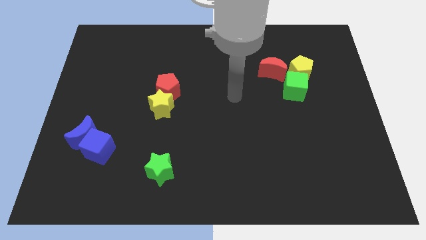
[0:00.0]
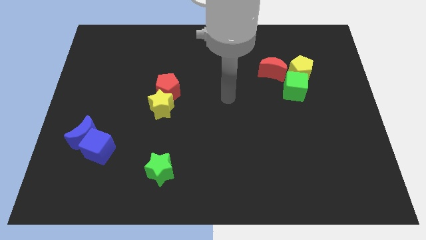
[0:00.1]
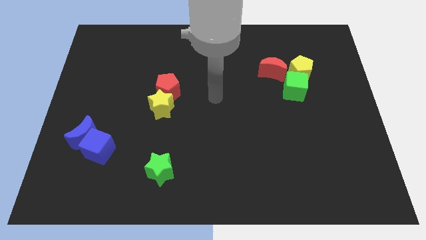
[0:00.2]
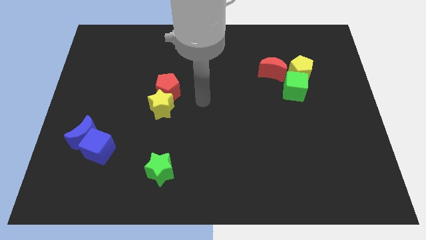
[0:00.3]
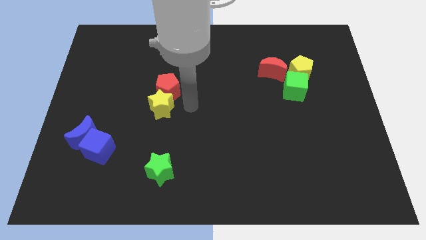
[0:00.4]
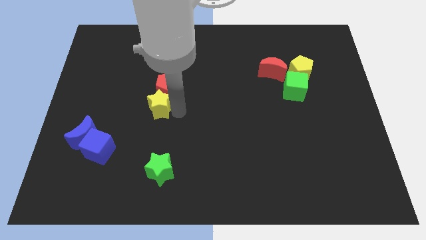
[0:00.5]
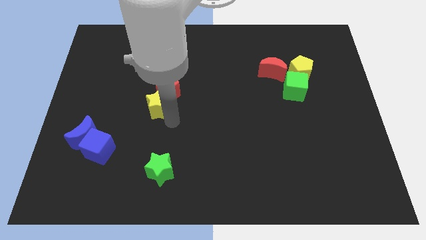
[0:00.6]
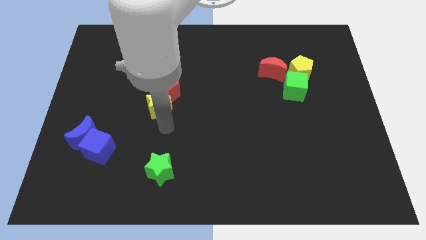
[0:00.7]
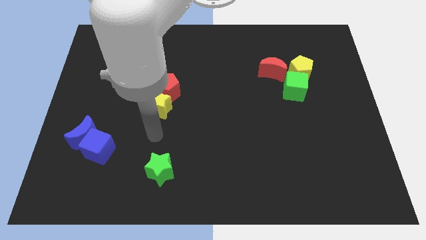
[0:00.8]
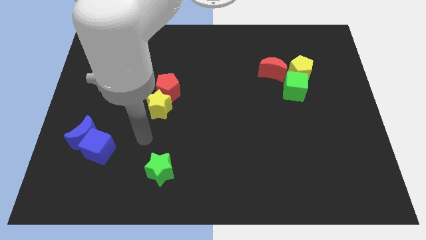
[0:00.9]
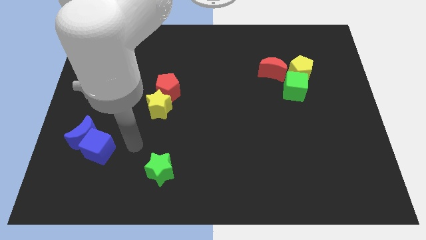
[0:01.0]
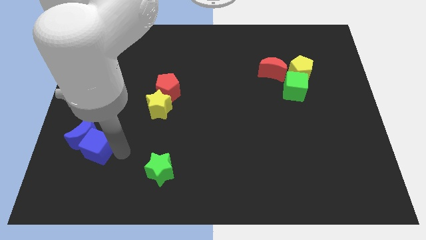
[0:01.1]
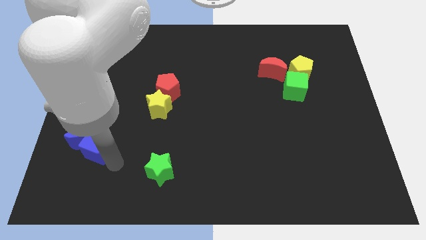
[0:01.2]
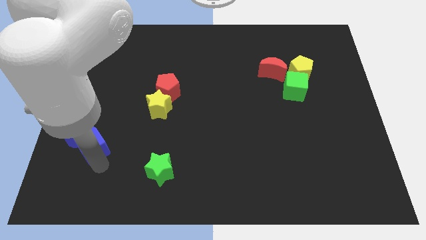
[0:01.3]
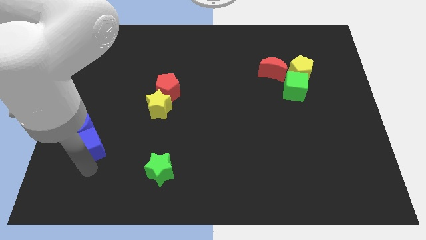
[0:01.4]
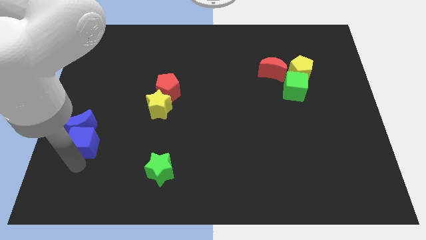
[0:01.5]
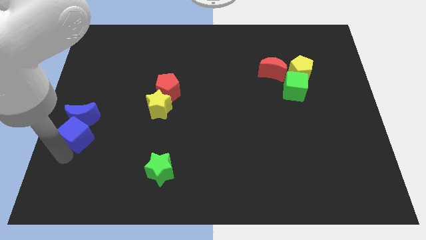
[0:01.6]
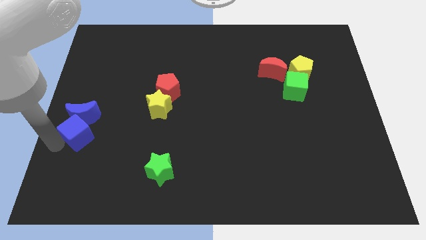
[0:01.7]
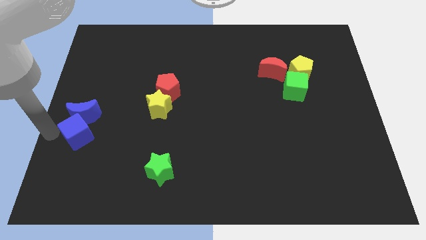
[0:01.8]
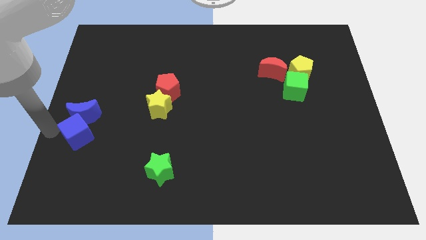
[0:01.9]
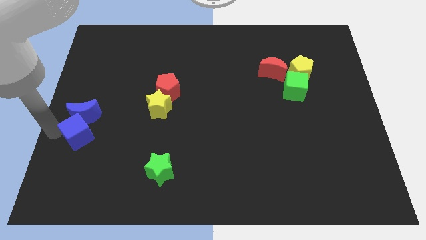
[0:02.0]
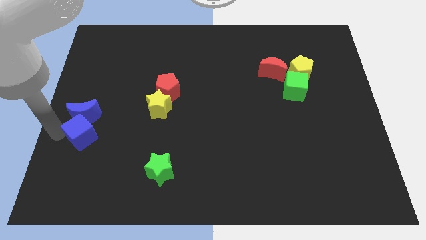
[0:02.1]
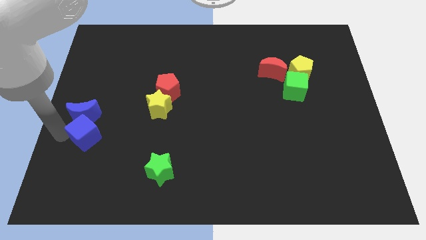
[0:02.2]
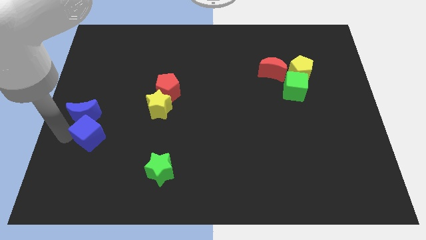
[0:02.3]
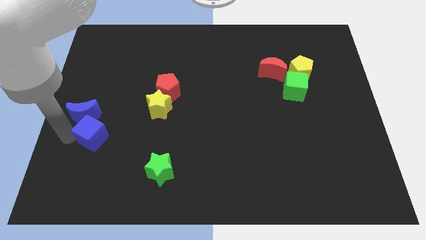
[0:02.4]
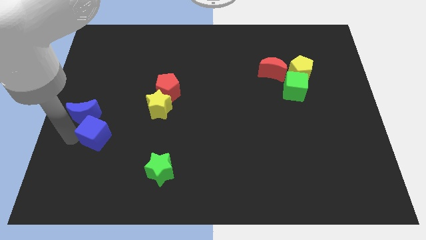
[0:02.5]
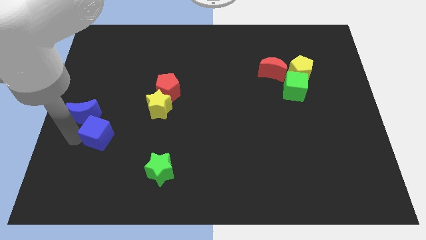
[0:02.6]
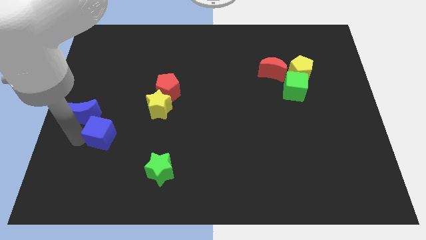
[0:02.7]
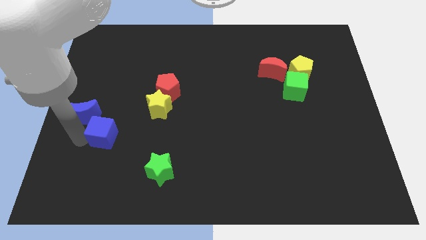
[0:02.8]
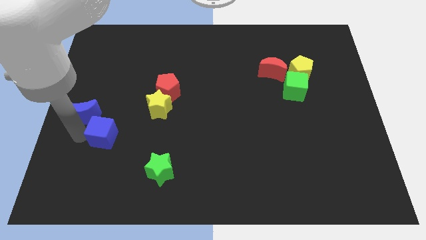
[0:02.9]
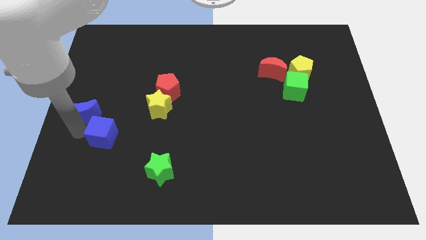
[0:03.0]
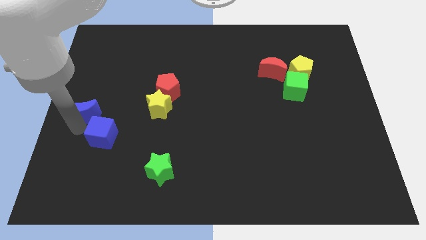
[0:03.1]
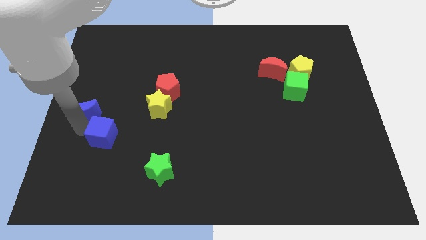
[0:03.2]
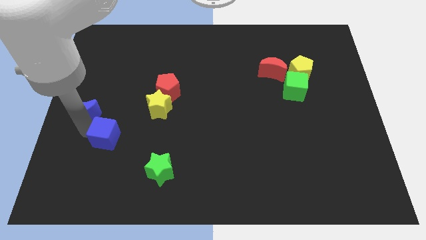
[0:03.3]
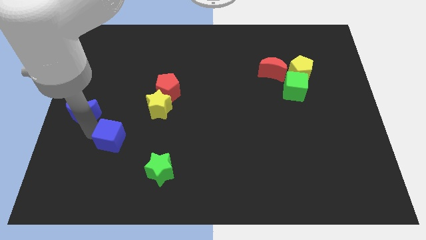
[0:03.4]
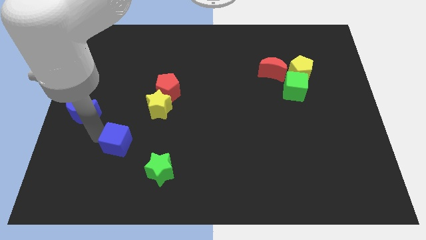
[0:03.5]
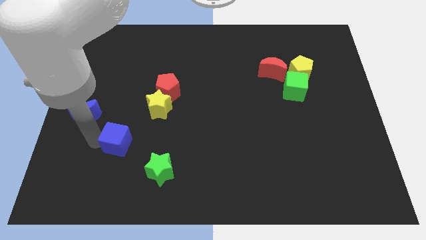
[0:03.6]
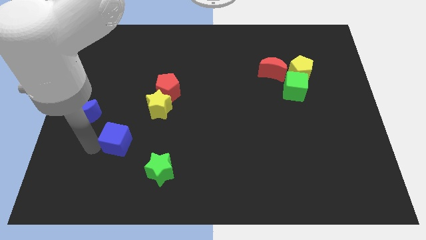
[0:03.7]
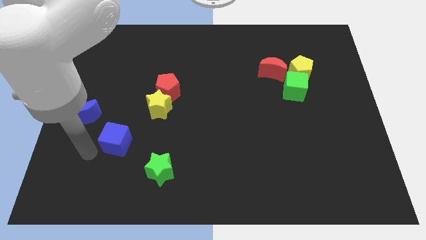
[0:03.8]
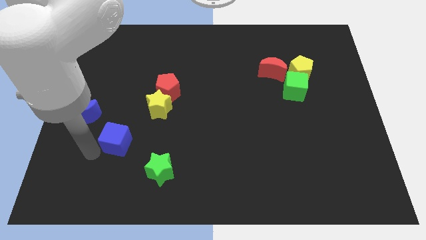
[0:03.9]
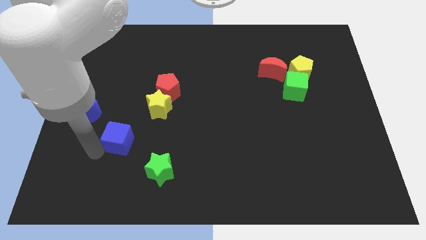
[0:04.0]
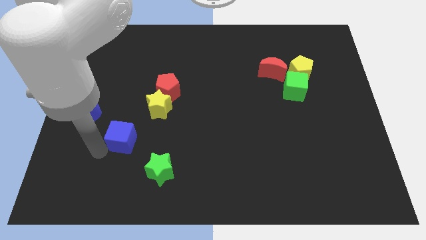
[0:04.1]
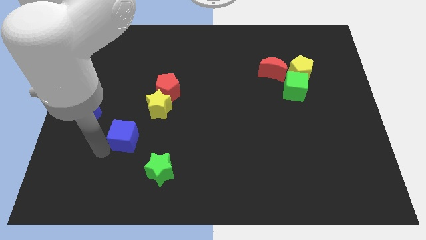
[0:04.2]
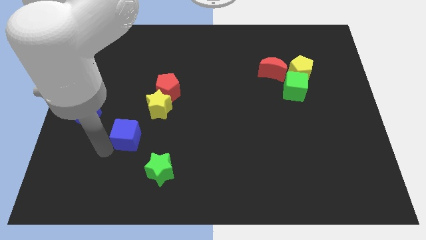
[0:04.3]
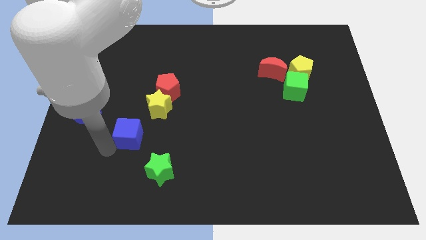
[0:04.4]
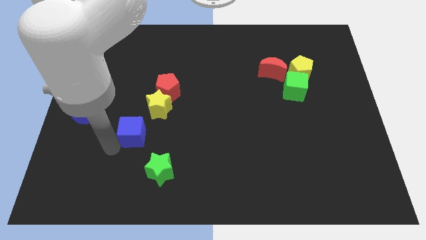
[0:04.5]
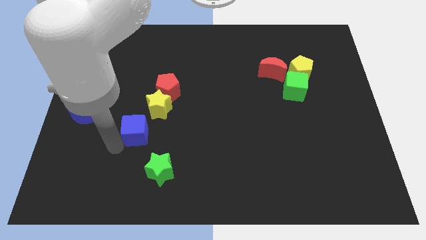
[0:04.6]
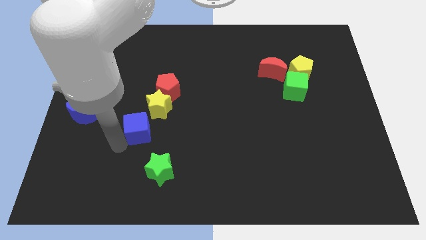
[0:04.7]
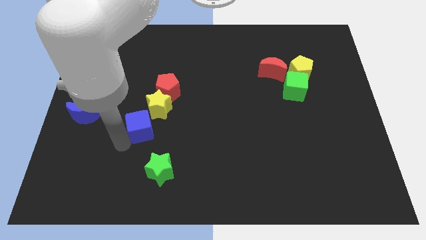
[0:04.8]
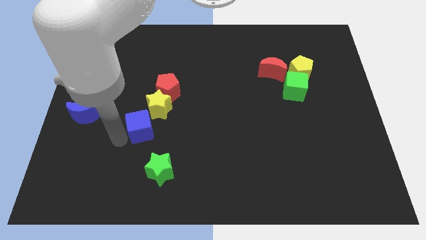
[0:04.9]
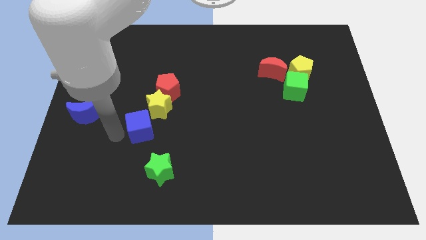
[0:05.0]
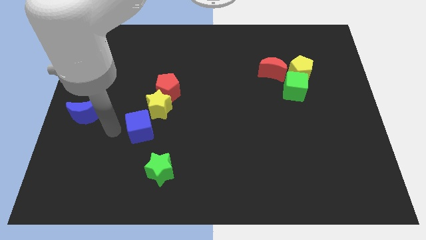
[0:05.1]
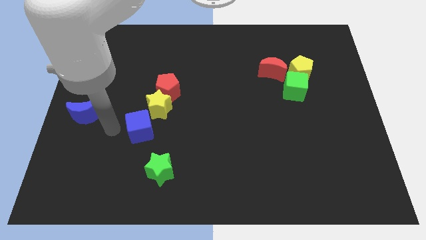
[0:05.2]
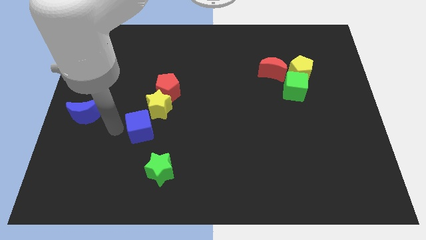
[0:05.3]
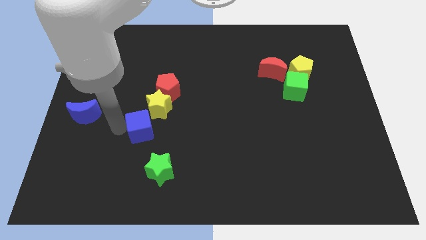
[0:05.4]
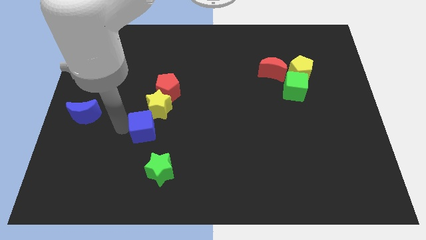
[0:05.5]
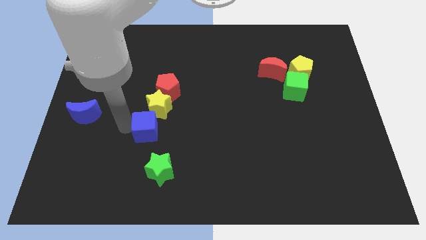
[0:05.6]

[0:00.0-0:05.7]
move the blue cube to the top side of the green star

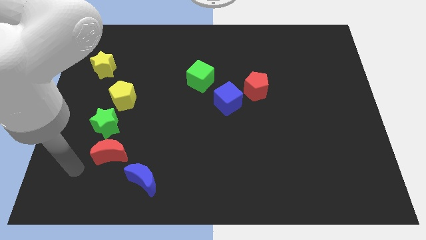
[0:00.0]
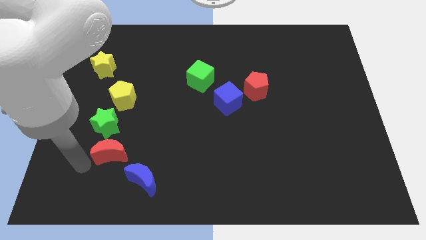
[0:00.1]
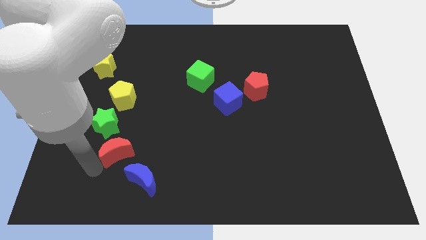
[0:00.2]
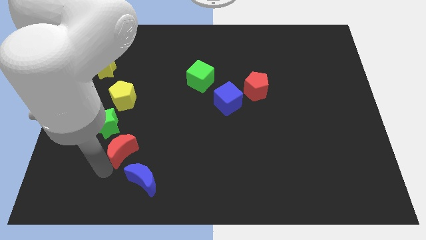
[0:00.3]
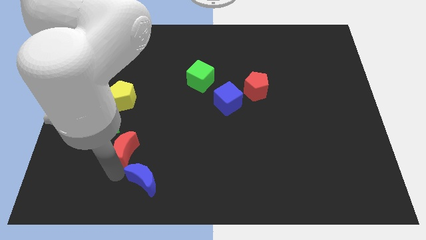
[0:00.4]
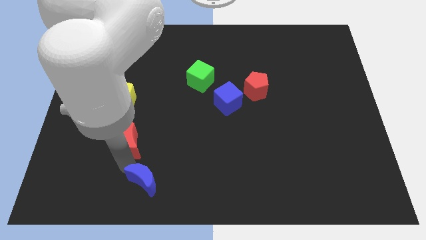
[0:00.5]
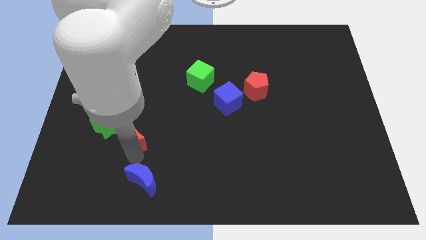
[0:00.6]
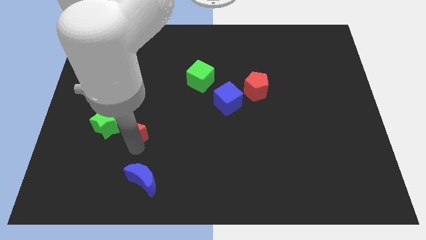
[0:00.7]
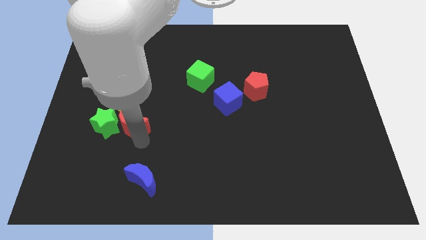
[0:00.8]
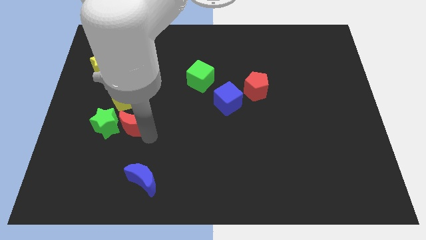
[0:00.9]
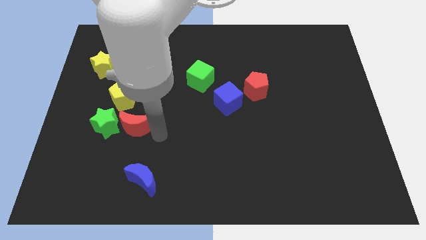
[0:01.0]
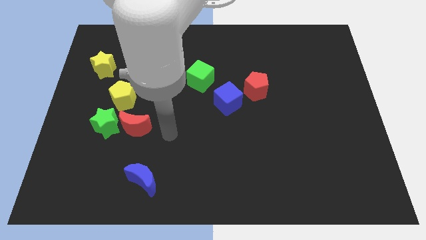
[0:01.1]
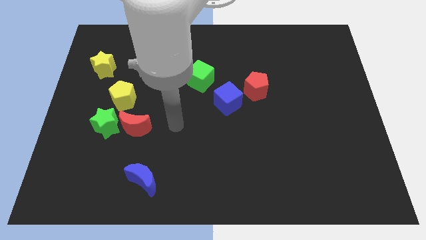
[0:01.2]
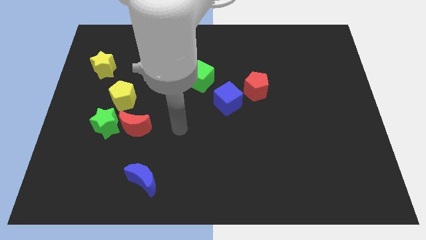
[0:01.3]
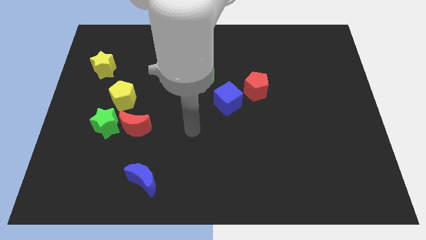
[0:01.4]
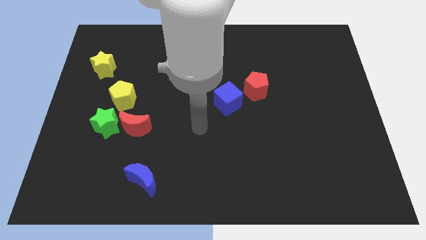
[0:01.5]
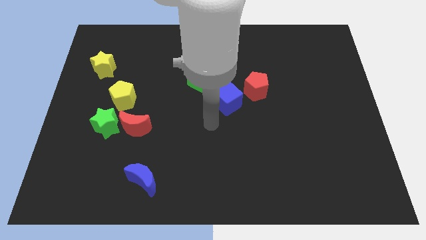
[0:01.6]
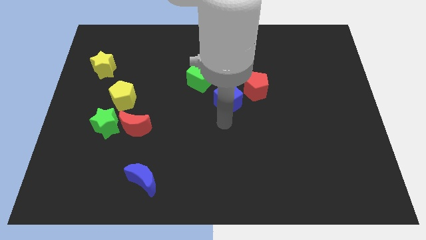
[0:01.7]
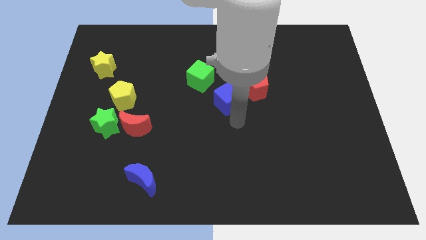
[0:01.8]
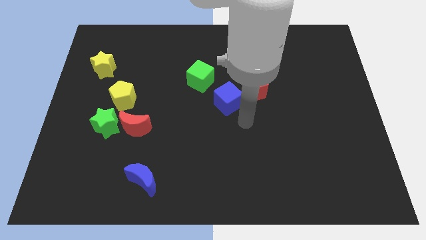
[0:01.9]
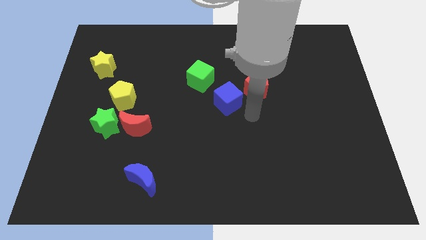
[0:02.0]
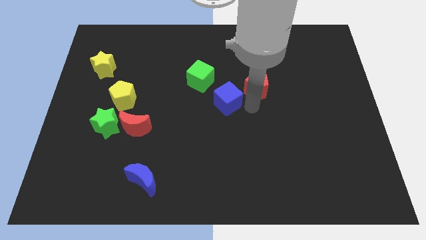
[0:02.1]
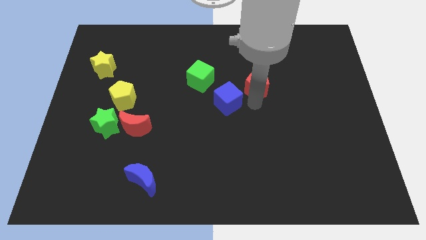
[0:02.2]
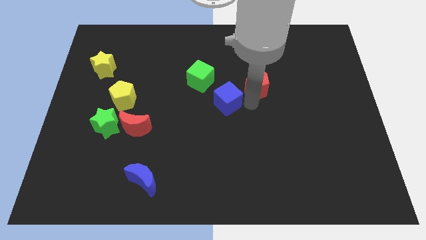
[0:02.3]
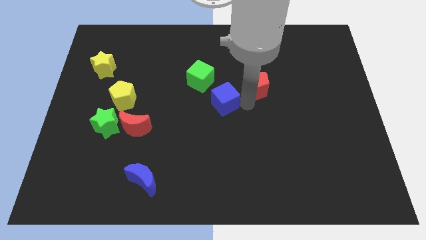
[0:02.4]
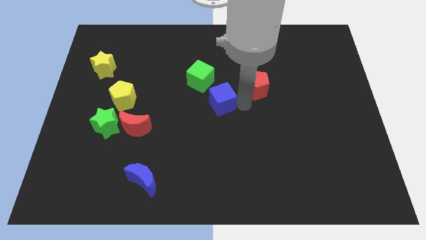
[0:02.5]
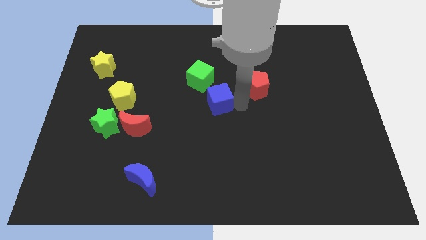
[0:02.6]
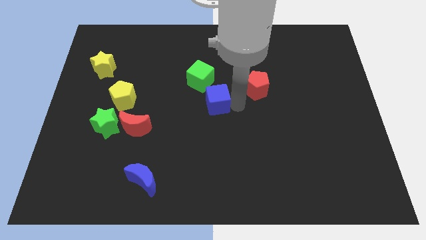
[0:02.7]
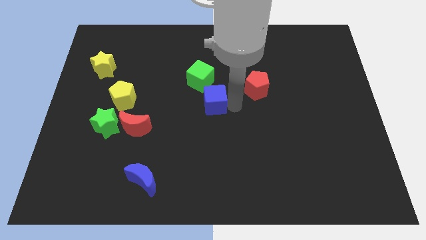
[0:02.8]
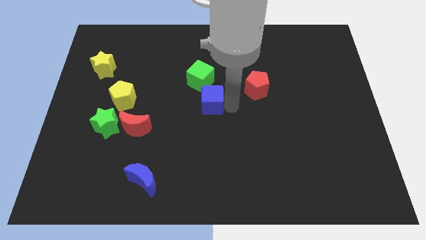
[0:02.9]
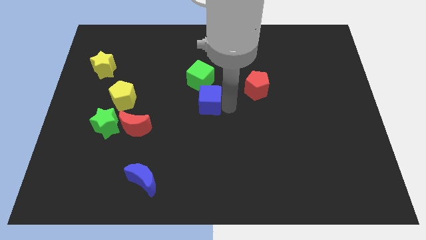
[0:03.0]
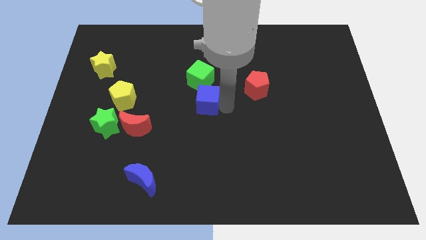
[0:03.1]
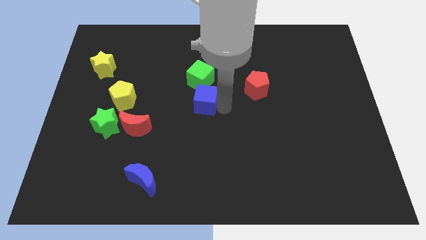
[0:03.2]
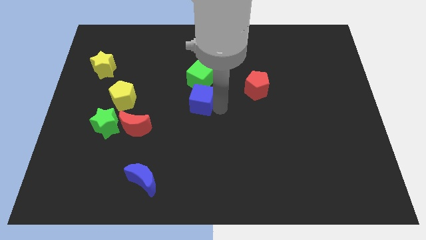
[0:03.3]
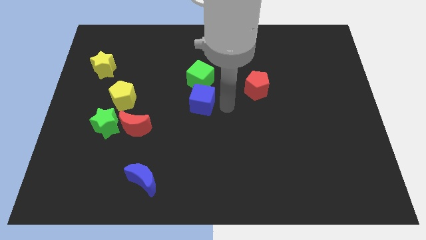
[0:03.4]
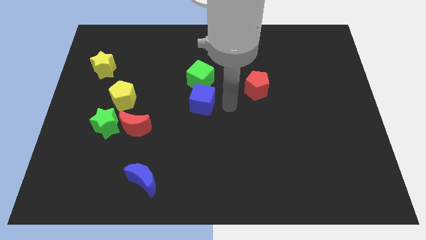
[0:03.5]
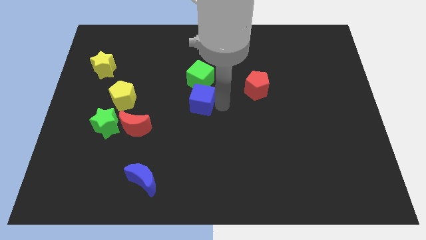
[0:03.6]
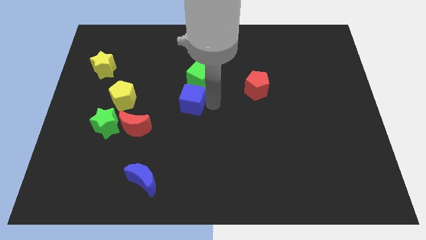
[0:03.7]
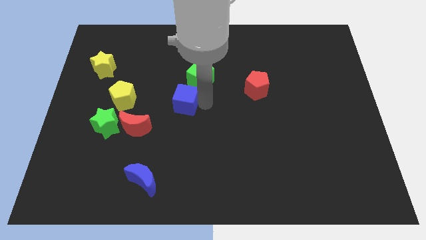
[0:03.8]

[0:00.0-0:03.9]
push the blue cube to the right of the yellow pentagon
